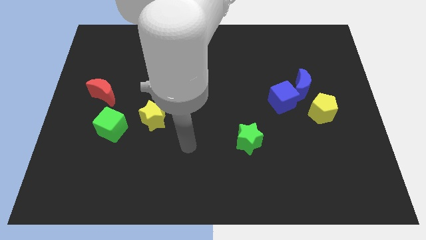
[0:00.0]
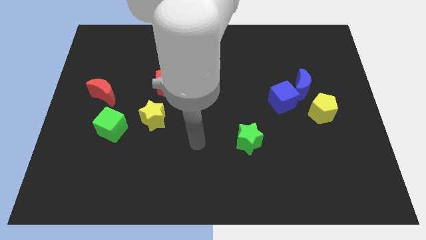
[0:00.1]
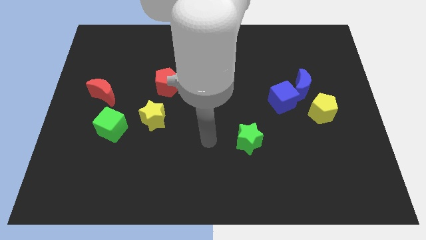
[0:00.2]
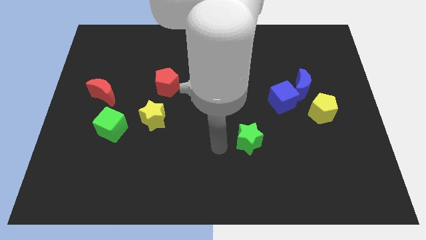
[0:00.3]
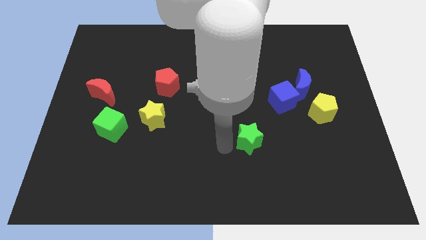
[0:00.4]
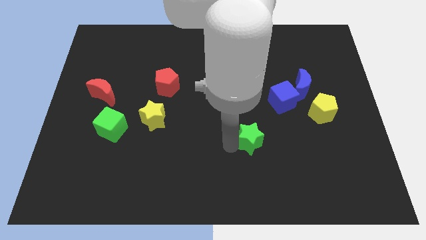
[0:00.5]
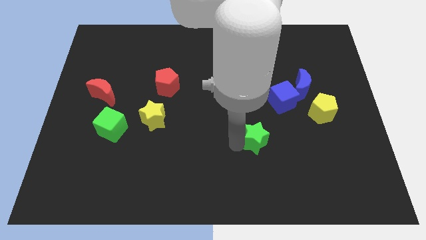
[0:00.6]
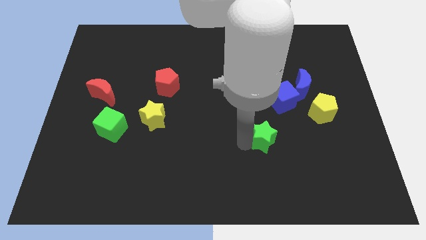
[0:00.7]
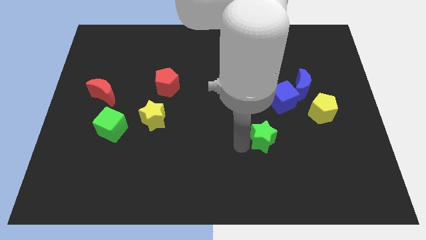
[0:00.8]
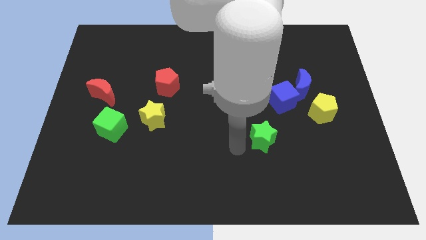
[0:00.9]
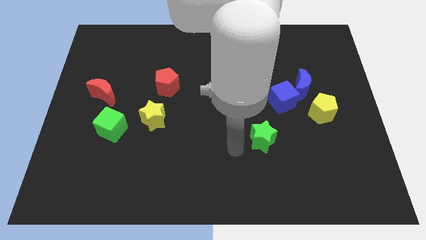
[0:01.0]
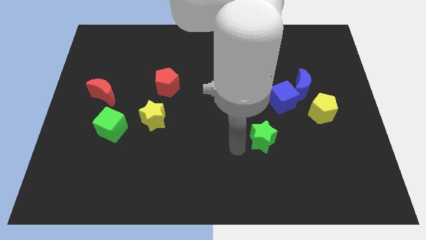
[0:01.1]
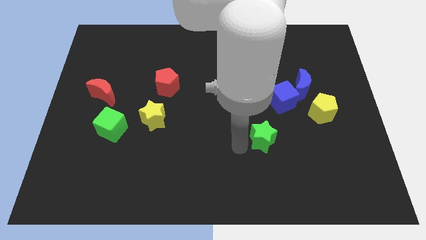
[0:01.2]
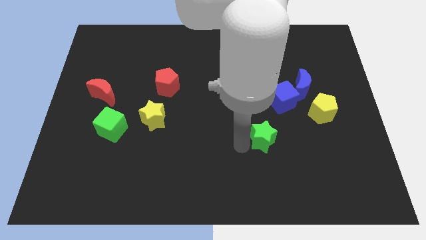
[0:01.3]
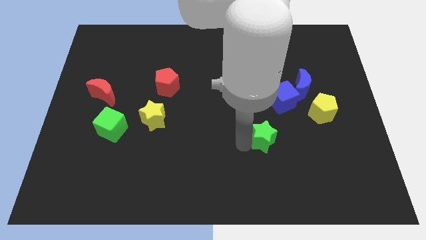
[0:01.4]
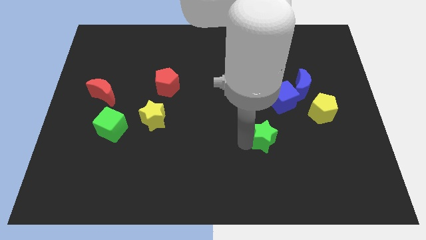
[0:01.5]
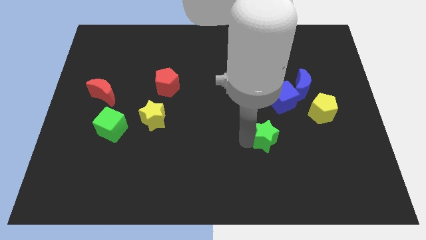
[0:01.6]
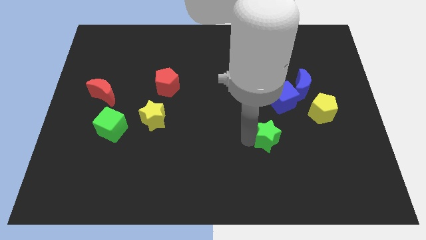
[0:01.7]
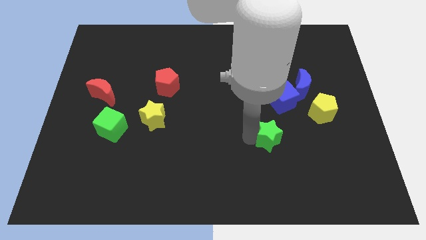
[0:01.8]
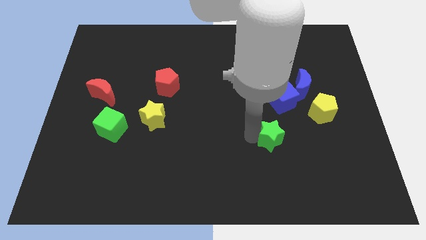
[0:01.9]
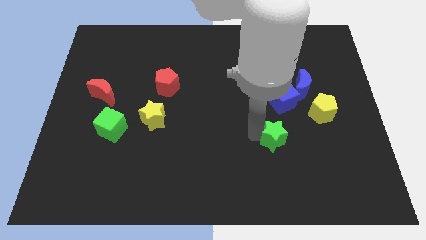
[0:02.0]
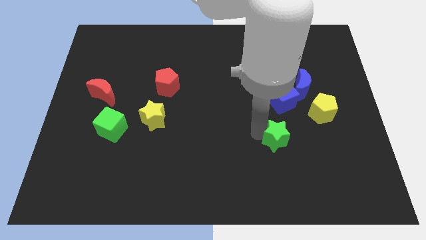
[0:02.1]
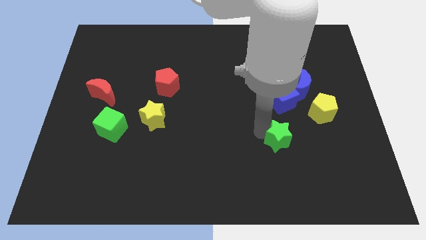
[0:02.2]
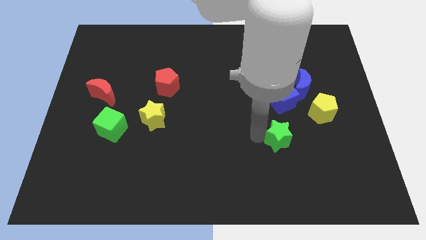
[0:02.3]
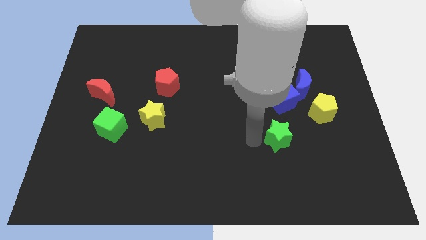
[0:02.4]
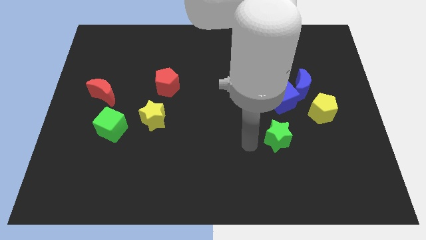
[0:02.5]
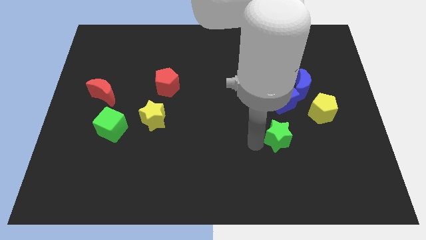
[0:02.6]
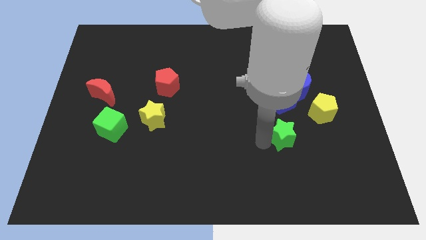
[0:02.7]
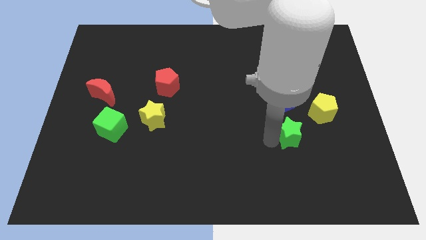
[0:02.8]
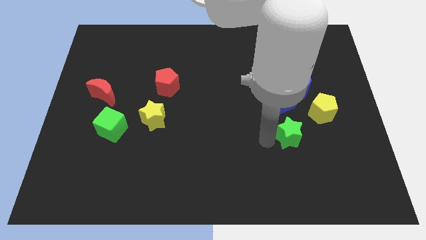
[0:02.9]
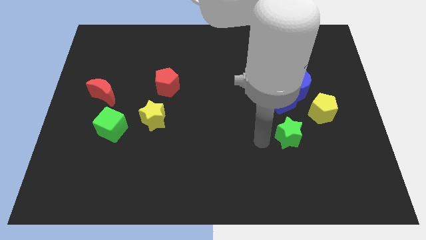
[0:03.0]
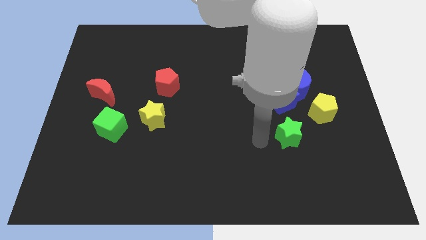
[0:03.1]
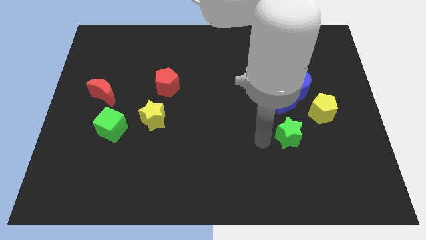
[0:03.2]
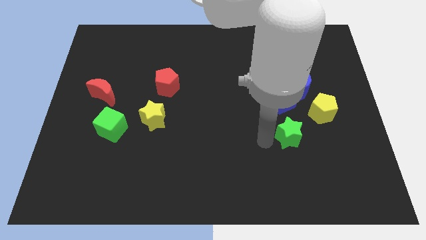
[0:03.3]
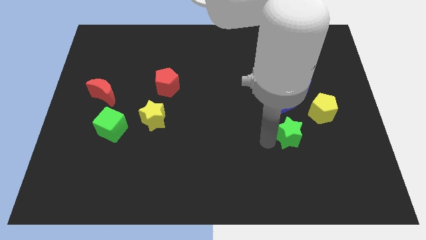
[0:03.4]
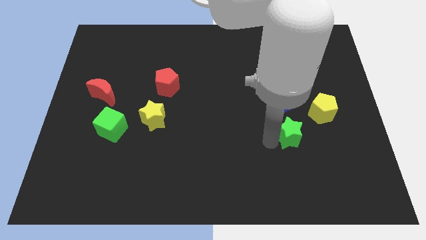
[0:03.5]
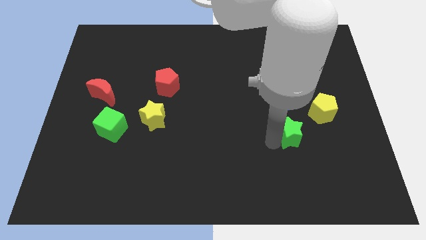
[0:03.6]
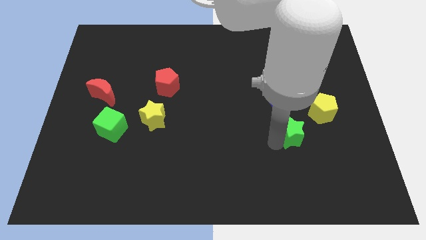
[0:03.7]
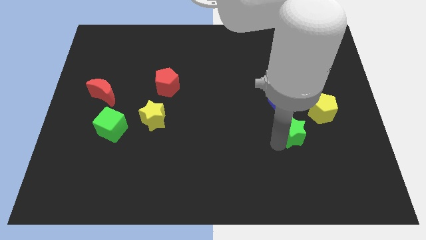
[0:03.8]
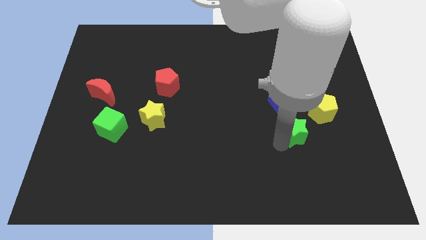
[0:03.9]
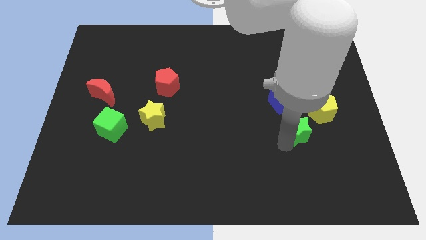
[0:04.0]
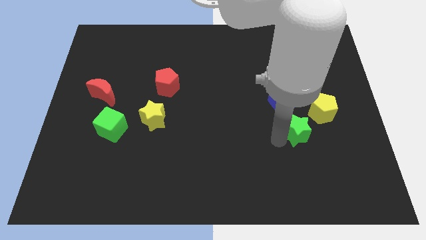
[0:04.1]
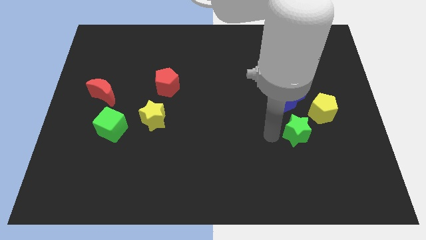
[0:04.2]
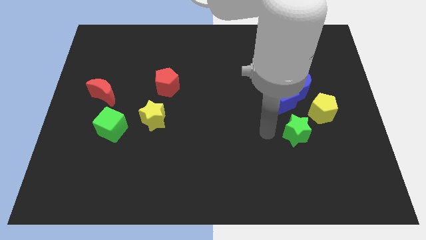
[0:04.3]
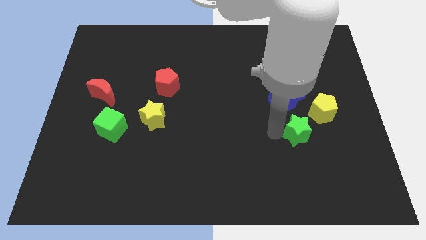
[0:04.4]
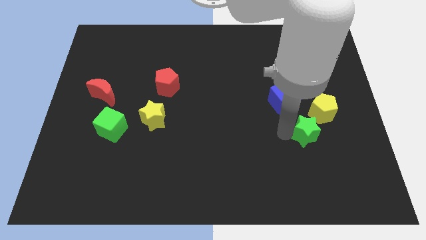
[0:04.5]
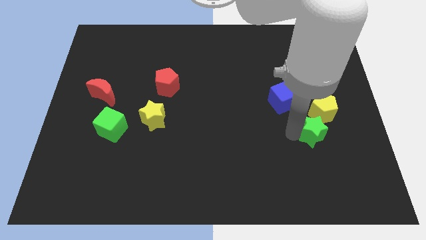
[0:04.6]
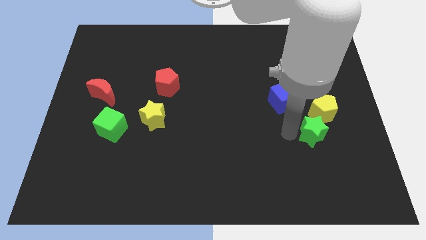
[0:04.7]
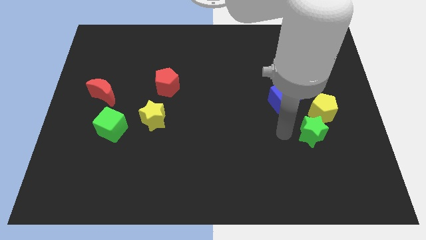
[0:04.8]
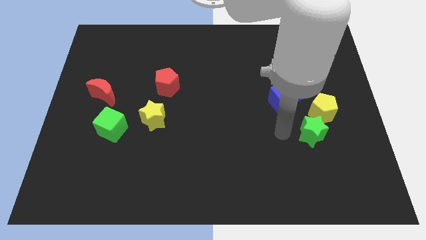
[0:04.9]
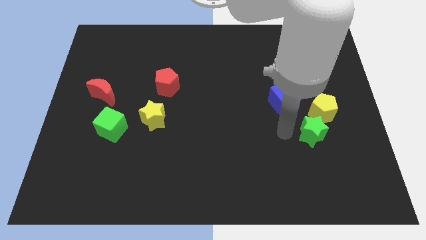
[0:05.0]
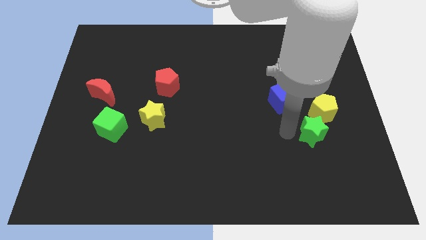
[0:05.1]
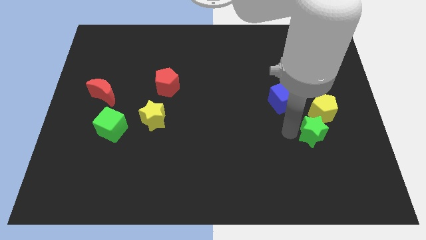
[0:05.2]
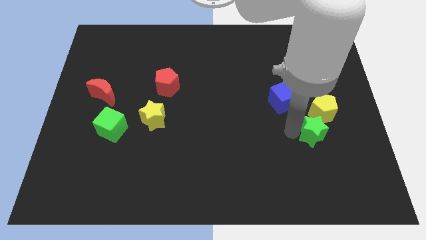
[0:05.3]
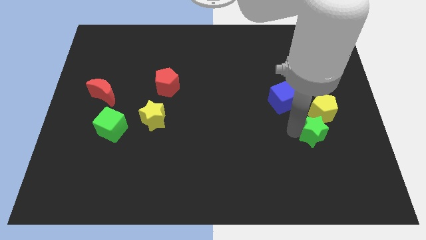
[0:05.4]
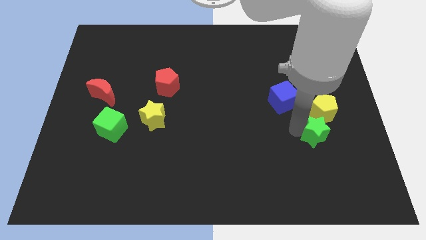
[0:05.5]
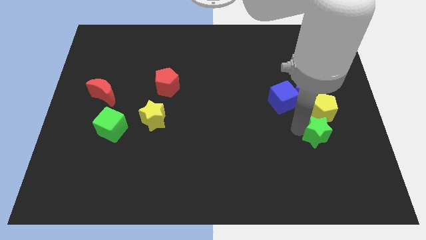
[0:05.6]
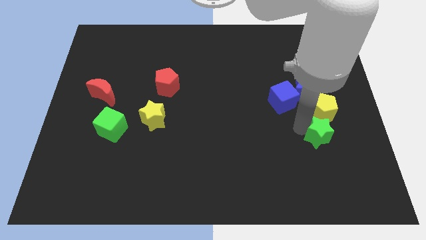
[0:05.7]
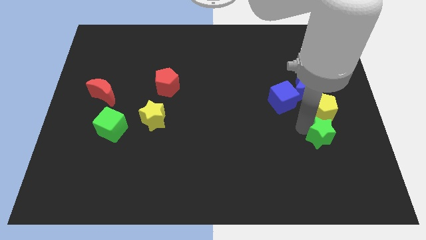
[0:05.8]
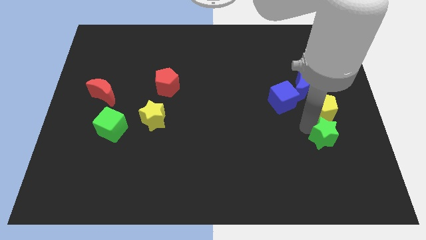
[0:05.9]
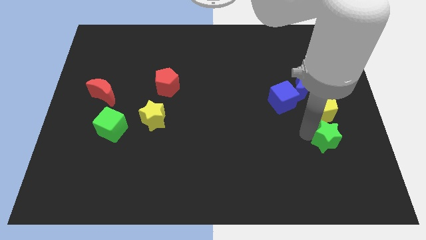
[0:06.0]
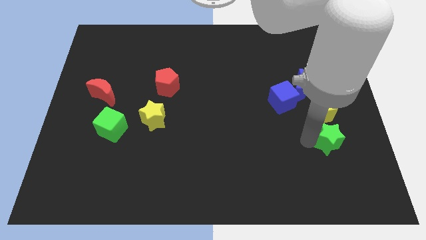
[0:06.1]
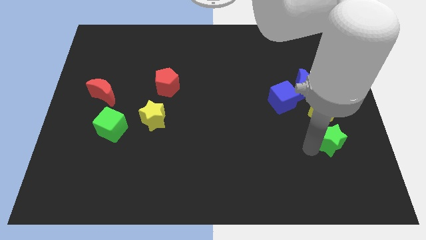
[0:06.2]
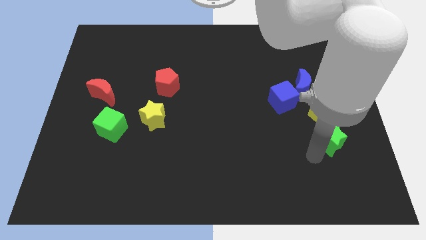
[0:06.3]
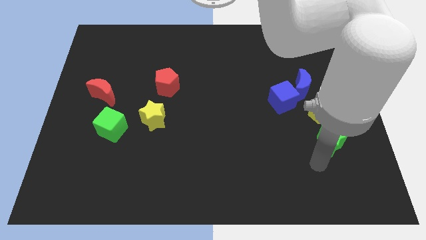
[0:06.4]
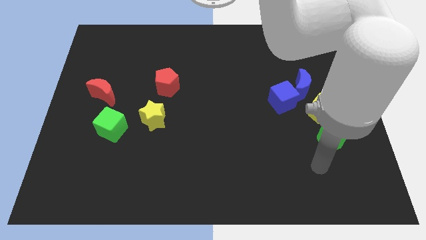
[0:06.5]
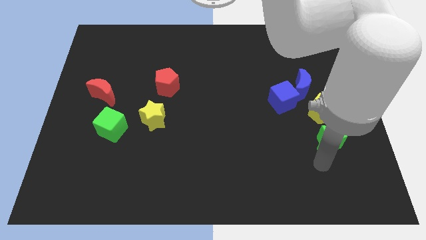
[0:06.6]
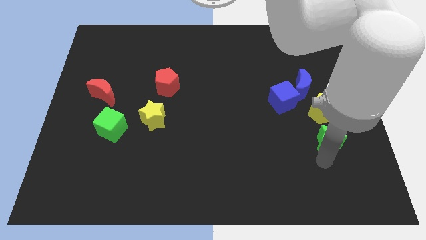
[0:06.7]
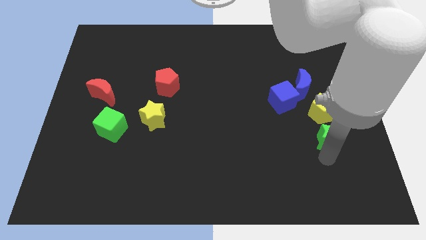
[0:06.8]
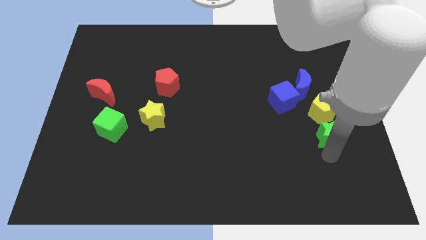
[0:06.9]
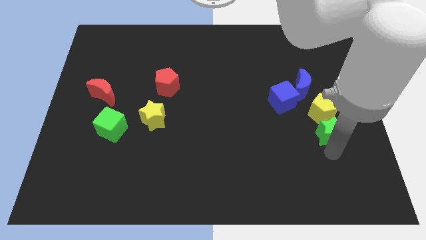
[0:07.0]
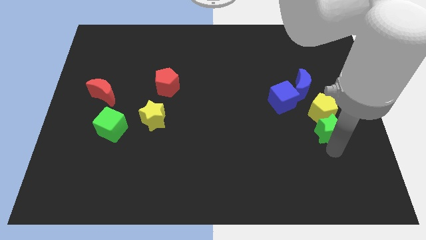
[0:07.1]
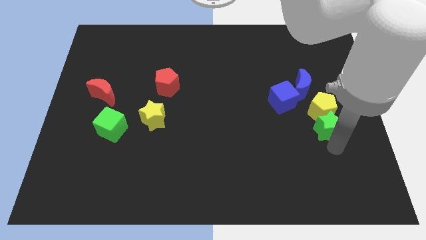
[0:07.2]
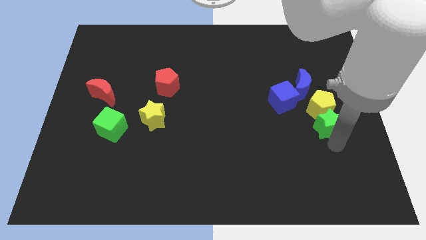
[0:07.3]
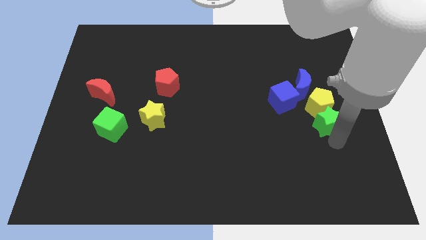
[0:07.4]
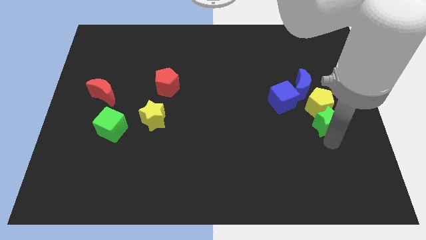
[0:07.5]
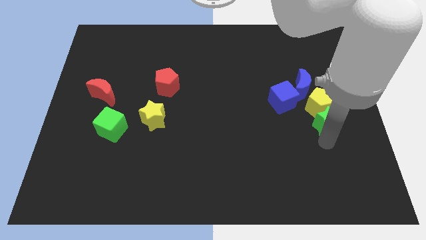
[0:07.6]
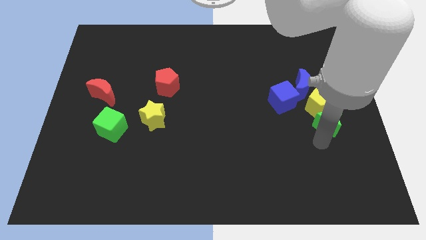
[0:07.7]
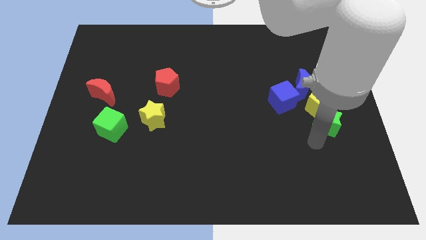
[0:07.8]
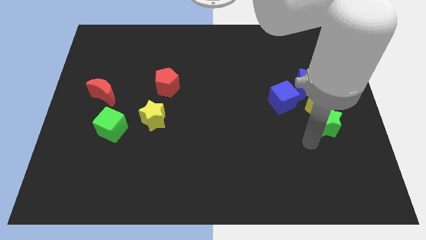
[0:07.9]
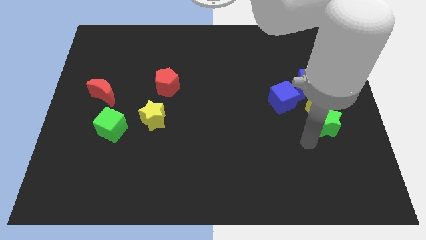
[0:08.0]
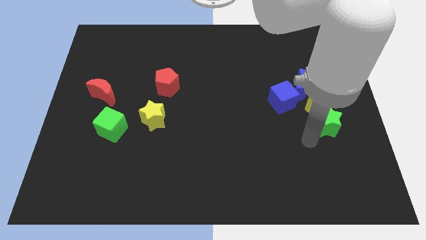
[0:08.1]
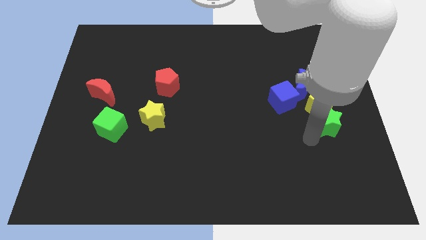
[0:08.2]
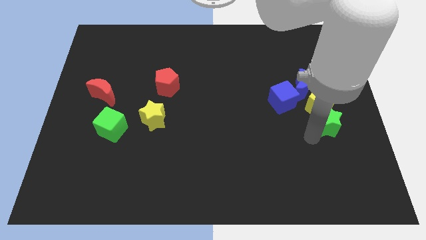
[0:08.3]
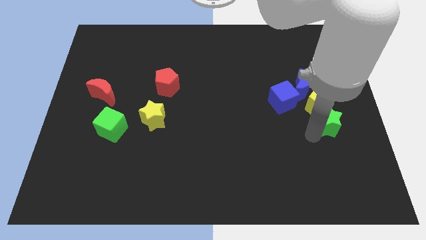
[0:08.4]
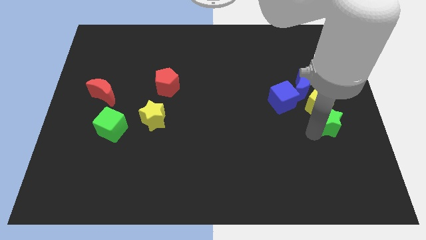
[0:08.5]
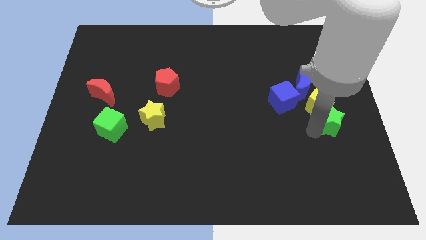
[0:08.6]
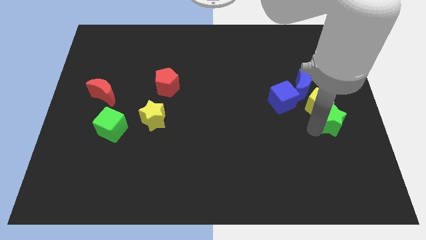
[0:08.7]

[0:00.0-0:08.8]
push the green star to the bottom right of the blue moon
